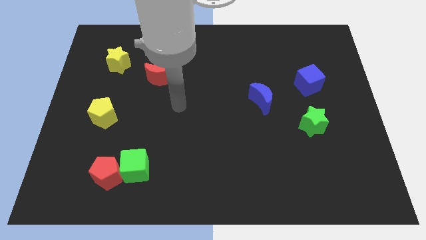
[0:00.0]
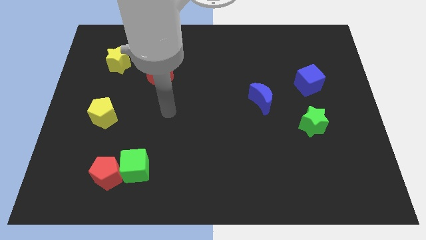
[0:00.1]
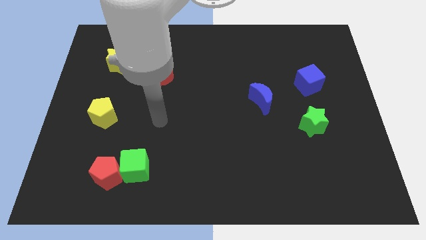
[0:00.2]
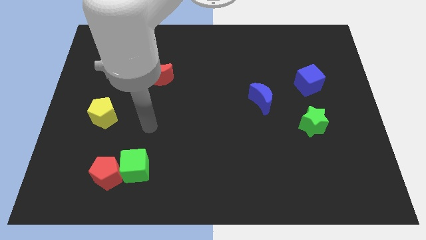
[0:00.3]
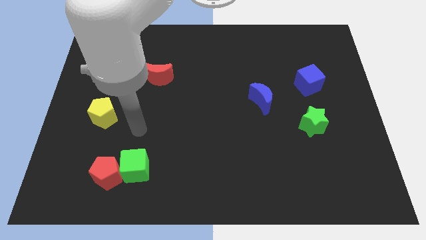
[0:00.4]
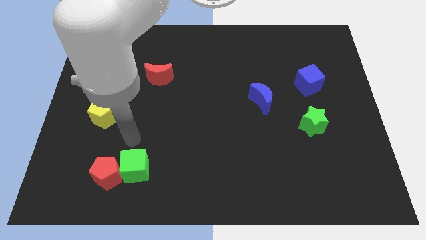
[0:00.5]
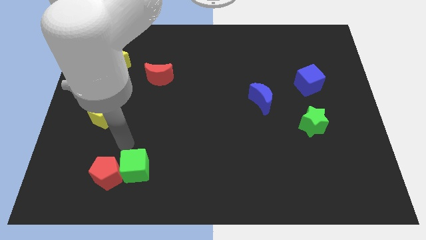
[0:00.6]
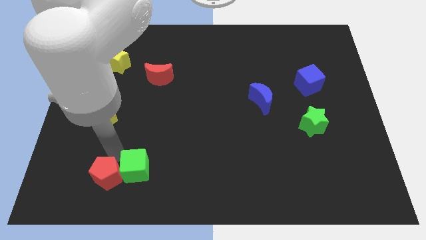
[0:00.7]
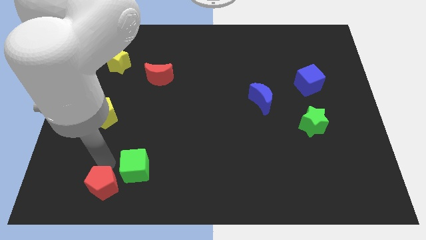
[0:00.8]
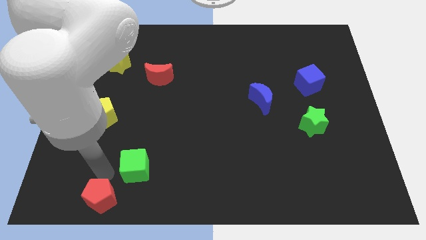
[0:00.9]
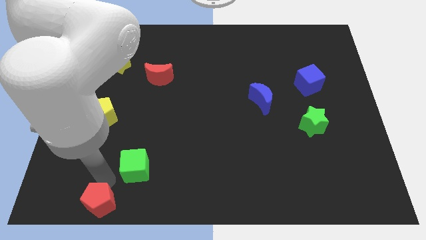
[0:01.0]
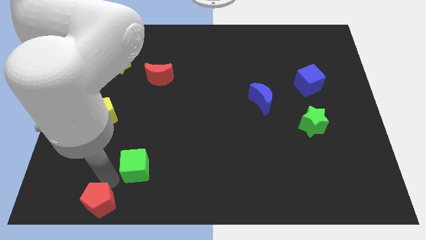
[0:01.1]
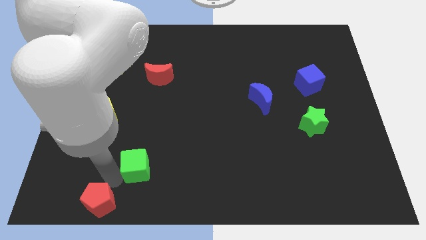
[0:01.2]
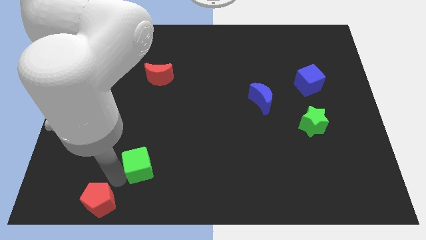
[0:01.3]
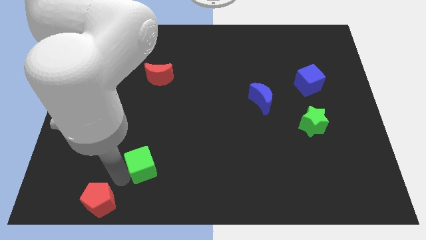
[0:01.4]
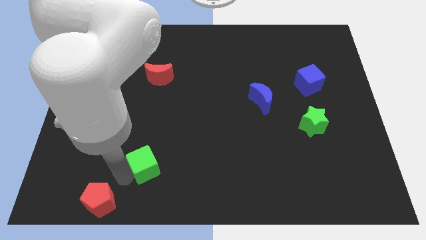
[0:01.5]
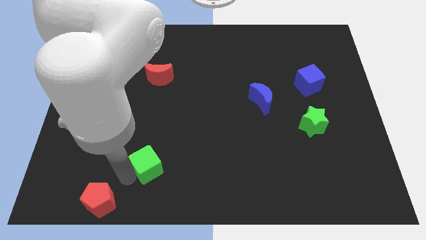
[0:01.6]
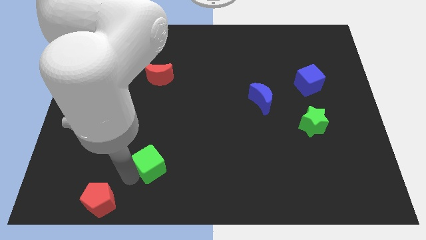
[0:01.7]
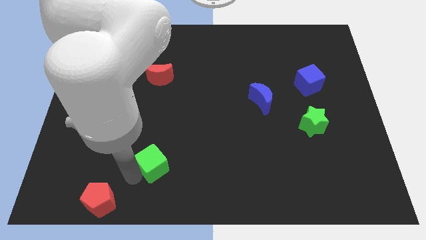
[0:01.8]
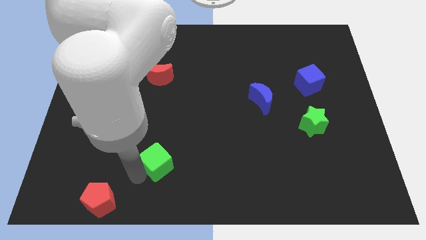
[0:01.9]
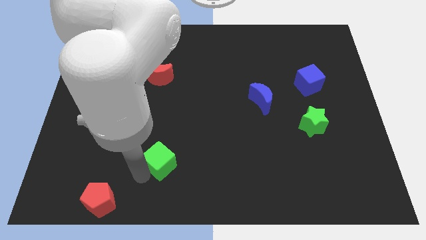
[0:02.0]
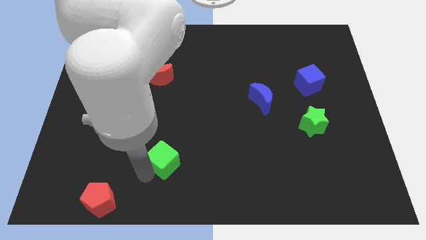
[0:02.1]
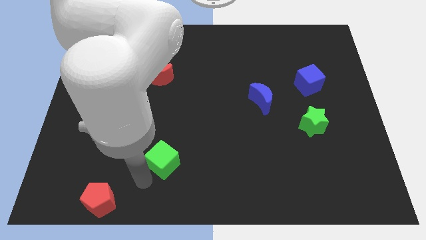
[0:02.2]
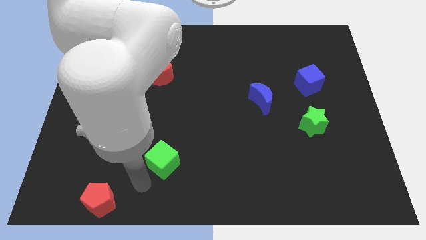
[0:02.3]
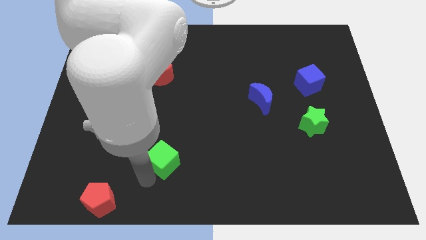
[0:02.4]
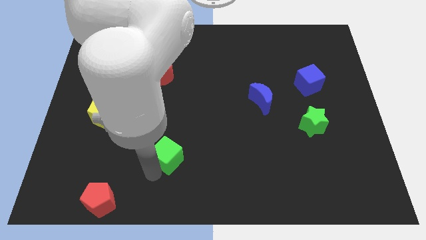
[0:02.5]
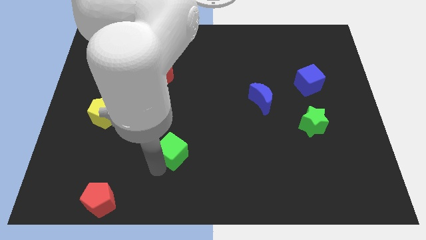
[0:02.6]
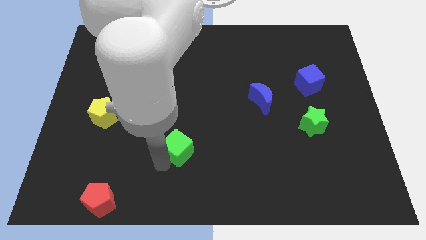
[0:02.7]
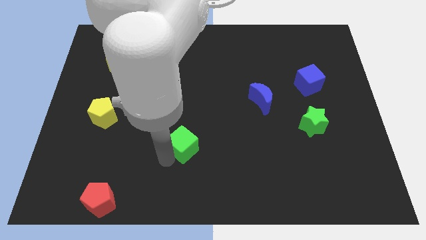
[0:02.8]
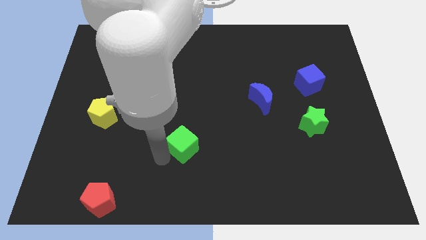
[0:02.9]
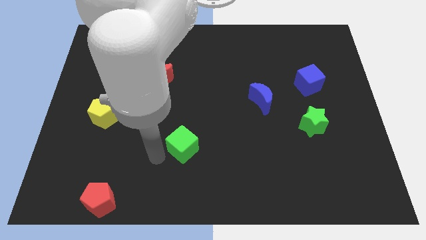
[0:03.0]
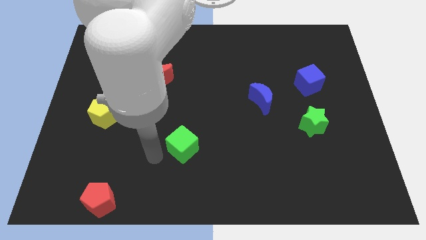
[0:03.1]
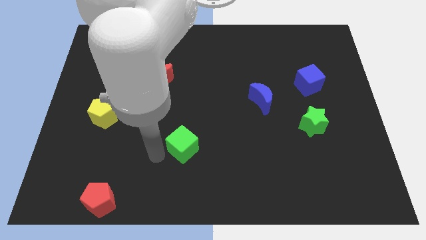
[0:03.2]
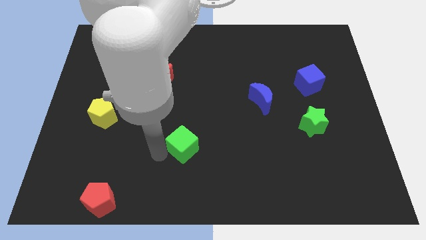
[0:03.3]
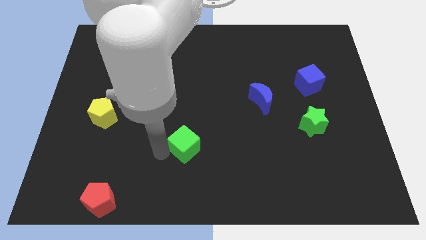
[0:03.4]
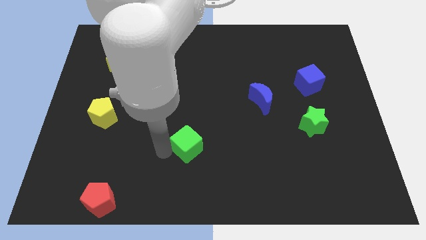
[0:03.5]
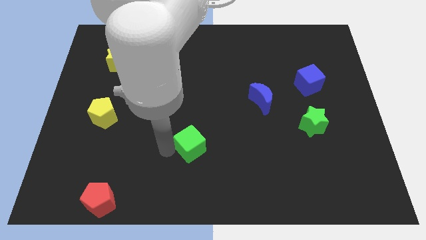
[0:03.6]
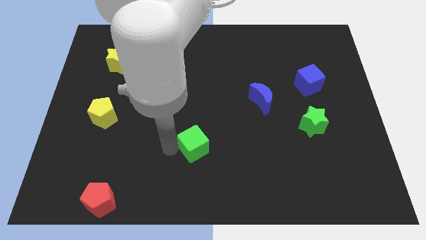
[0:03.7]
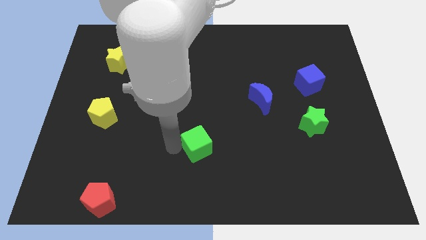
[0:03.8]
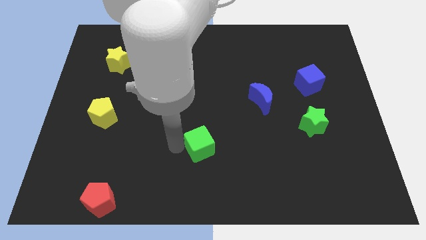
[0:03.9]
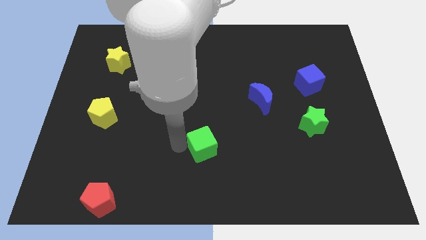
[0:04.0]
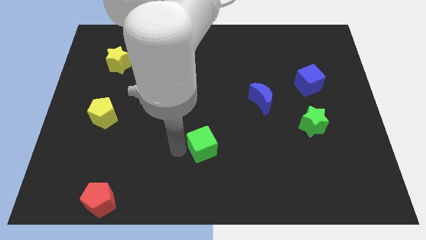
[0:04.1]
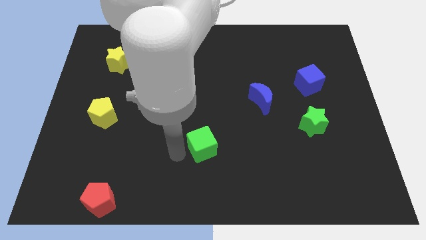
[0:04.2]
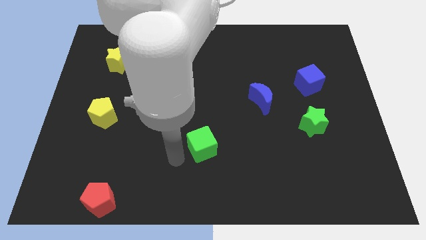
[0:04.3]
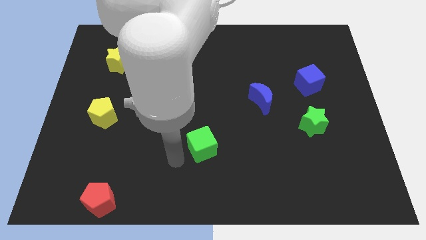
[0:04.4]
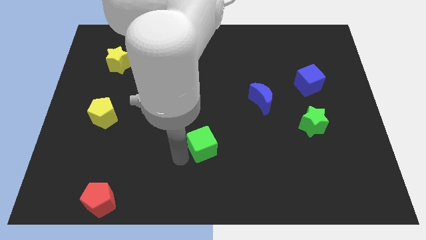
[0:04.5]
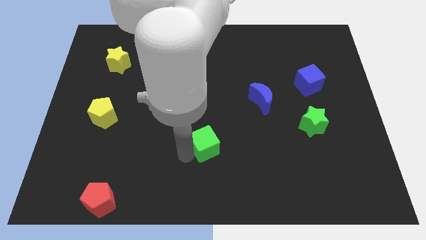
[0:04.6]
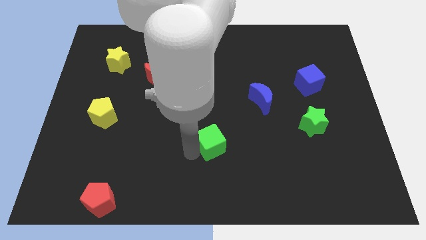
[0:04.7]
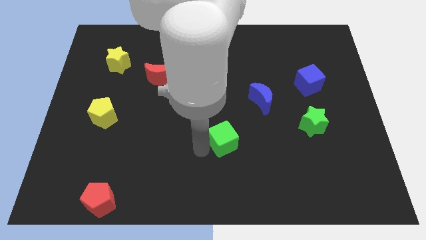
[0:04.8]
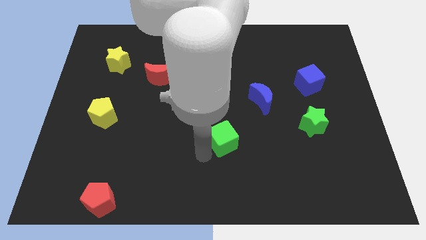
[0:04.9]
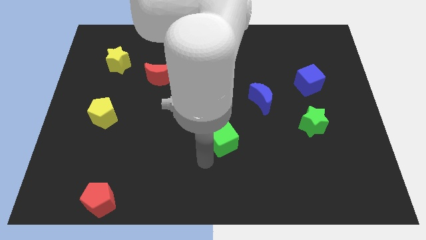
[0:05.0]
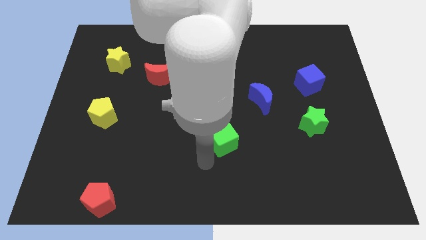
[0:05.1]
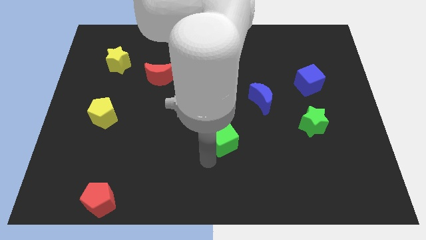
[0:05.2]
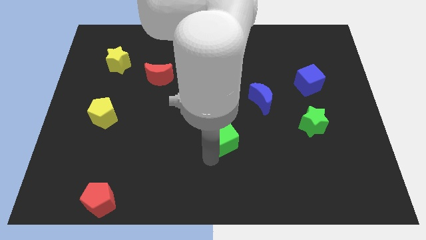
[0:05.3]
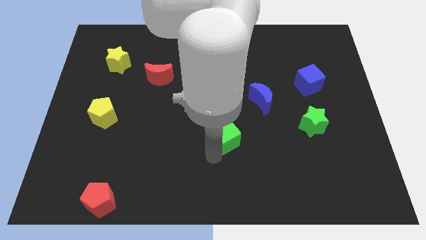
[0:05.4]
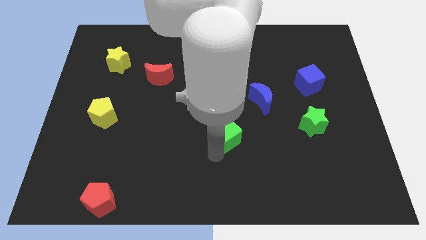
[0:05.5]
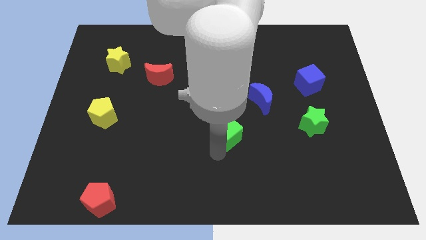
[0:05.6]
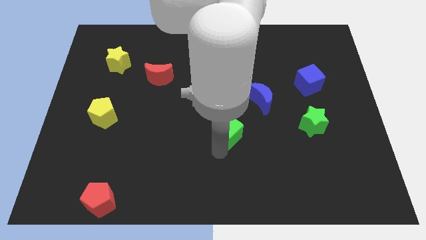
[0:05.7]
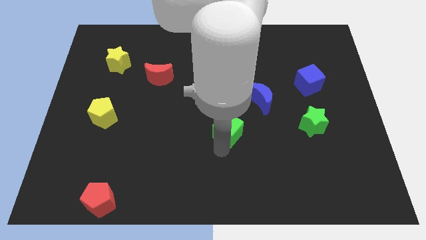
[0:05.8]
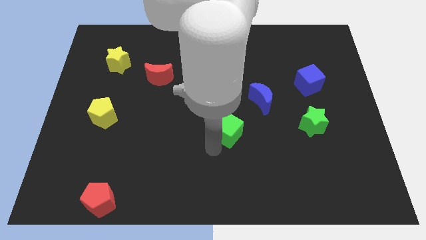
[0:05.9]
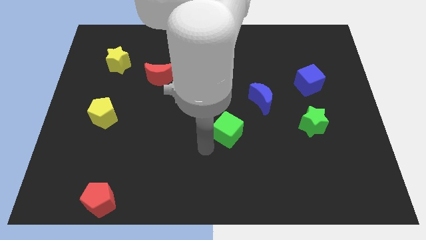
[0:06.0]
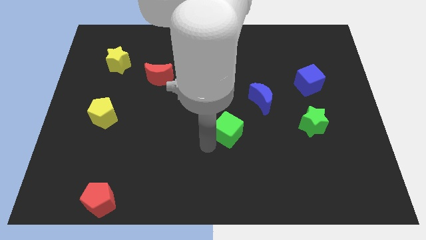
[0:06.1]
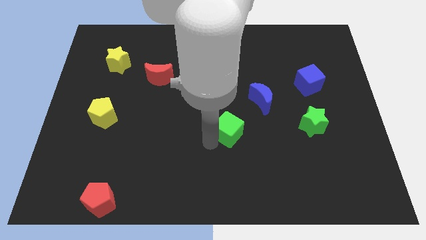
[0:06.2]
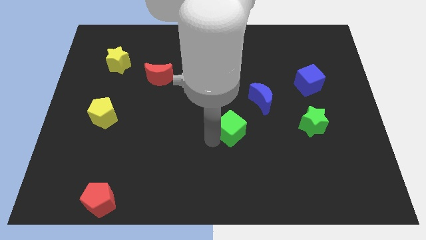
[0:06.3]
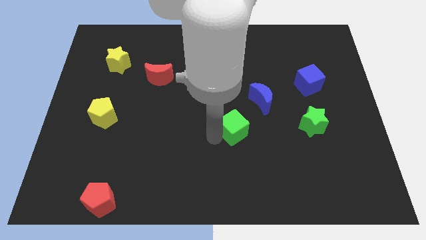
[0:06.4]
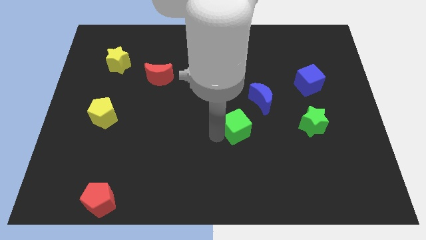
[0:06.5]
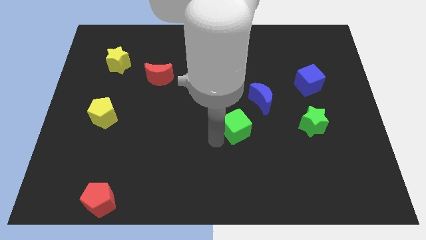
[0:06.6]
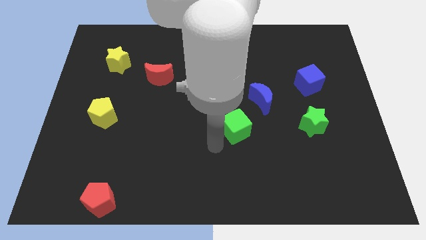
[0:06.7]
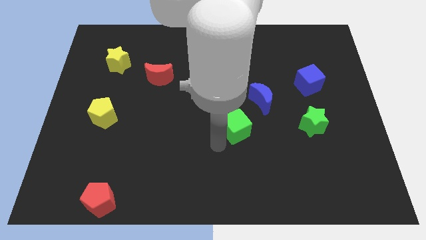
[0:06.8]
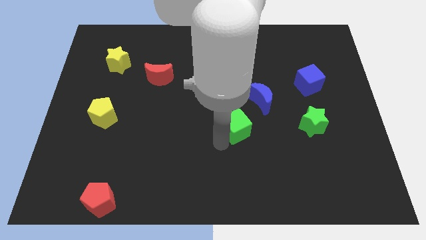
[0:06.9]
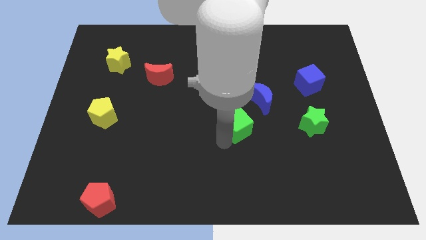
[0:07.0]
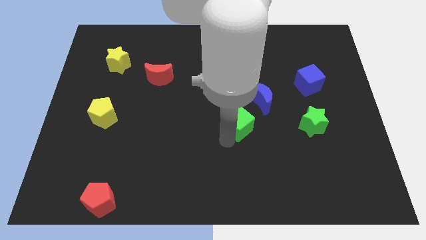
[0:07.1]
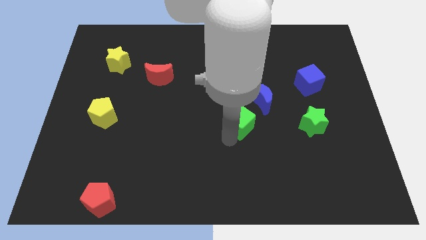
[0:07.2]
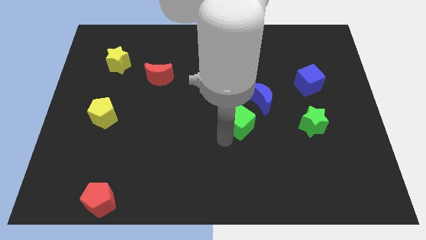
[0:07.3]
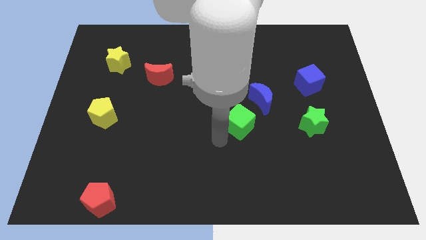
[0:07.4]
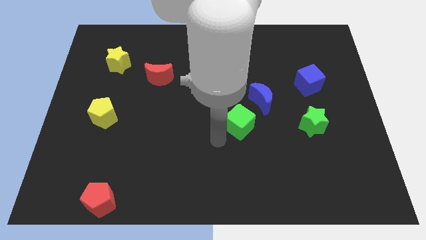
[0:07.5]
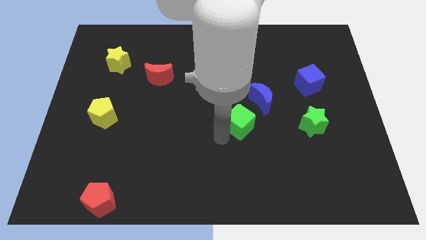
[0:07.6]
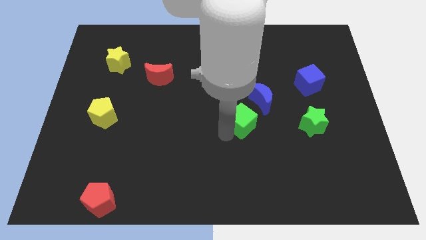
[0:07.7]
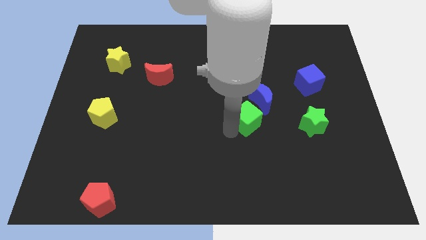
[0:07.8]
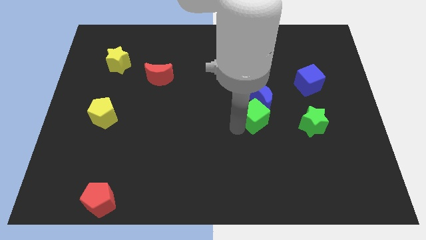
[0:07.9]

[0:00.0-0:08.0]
put the green cube next to the blue moon
